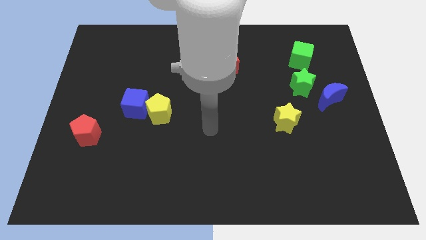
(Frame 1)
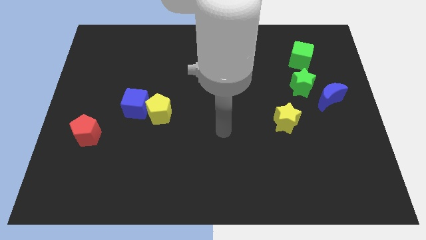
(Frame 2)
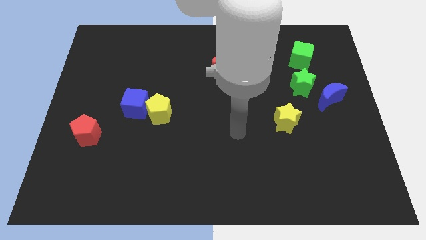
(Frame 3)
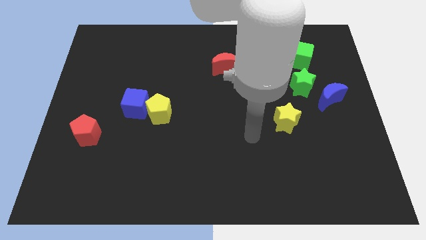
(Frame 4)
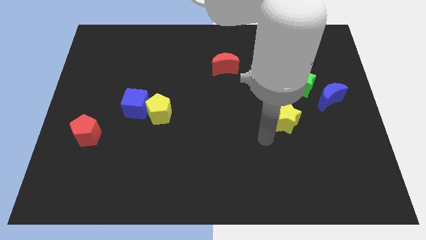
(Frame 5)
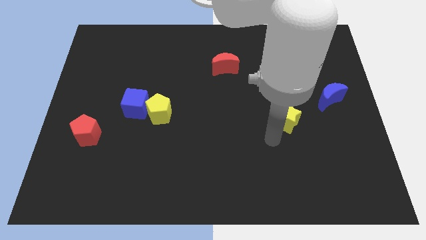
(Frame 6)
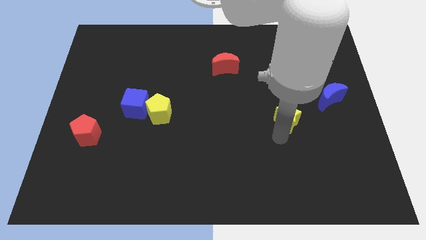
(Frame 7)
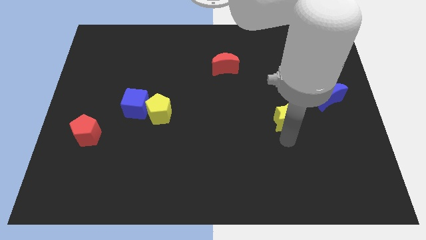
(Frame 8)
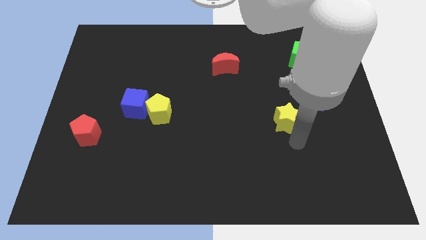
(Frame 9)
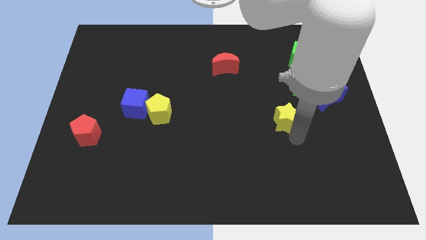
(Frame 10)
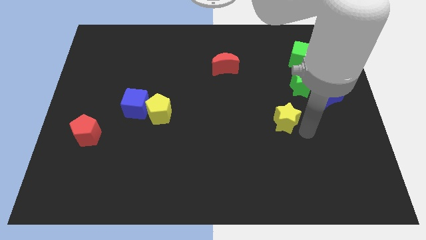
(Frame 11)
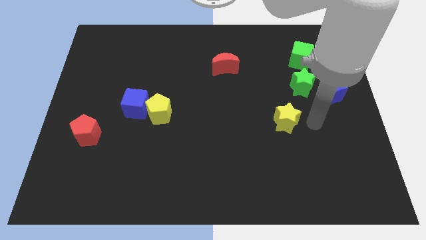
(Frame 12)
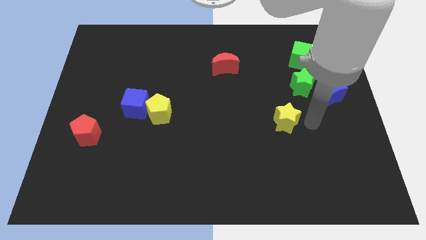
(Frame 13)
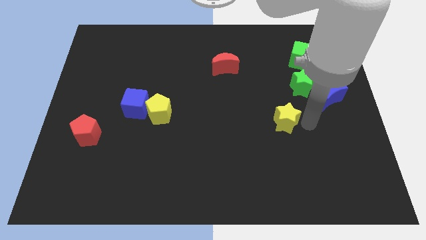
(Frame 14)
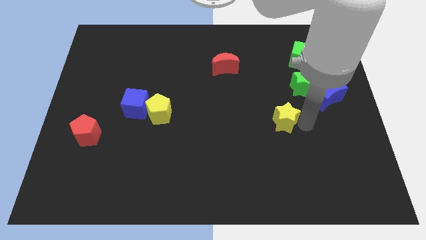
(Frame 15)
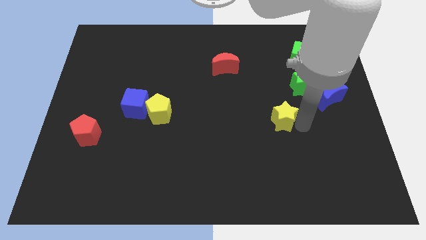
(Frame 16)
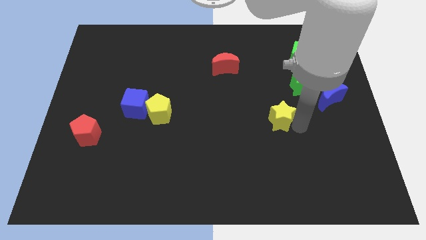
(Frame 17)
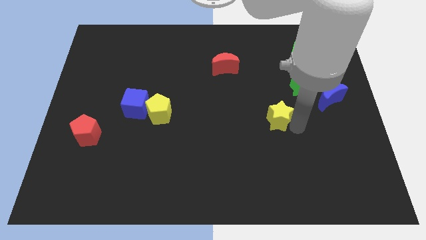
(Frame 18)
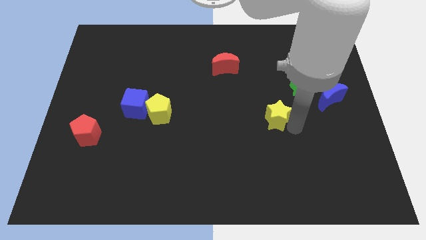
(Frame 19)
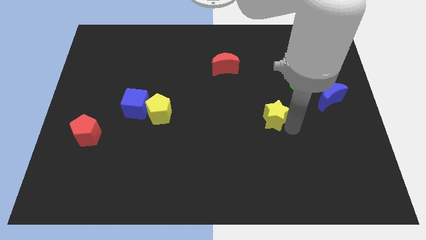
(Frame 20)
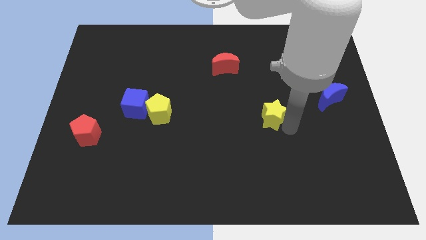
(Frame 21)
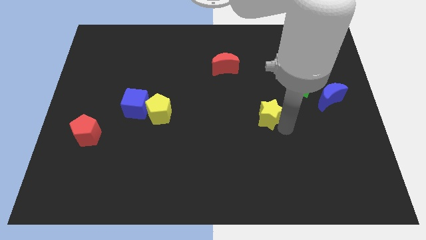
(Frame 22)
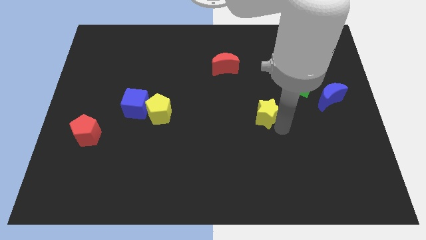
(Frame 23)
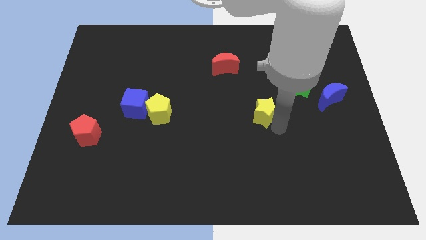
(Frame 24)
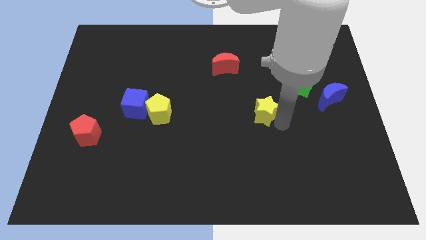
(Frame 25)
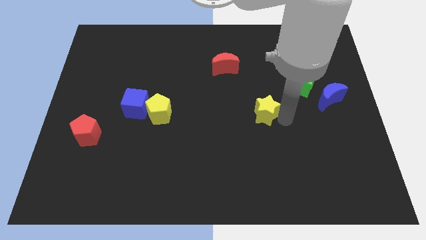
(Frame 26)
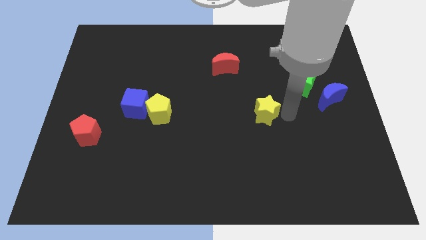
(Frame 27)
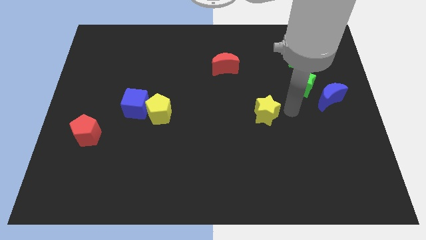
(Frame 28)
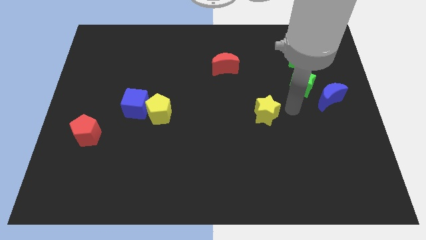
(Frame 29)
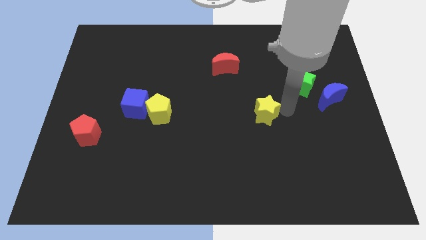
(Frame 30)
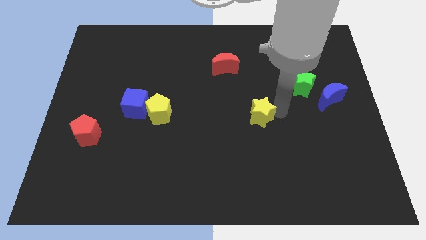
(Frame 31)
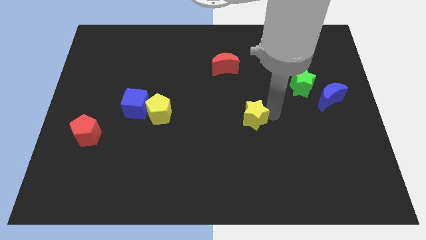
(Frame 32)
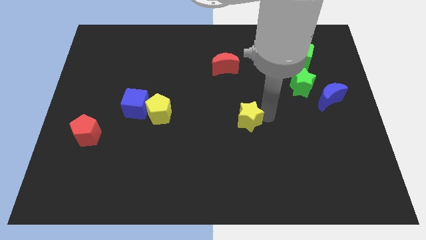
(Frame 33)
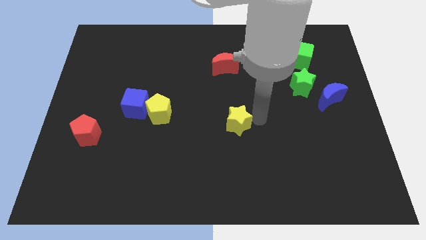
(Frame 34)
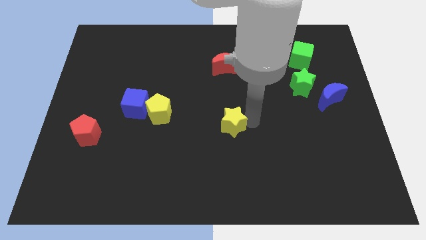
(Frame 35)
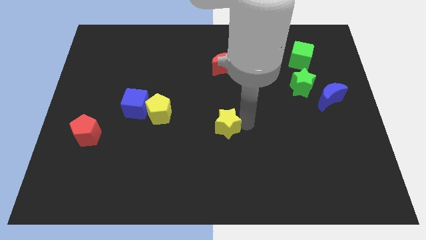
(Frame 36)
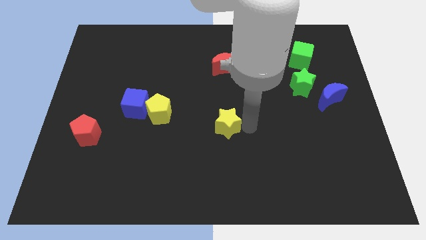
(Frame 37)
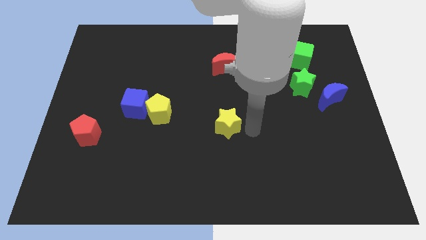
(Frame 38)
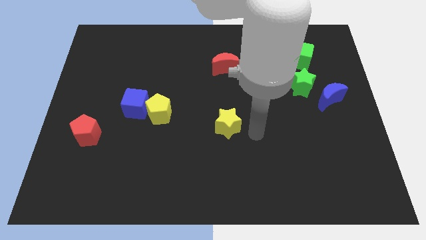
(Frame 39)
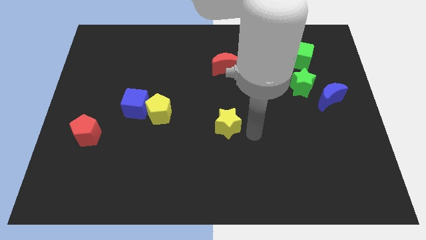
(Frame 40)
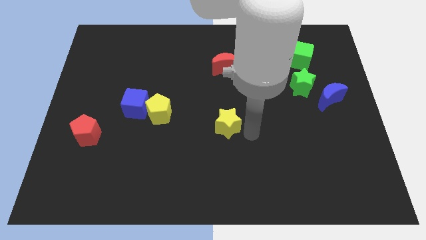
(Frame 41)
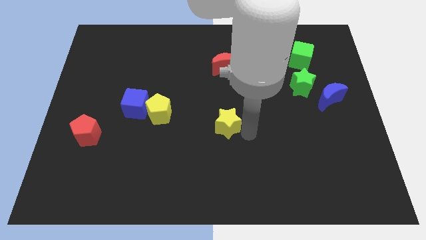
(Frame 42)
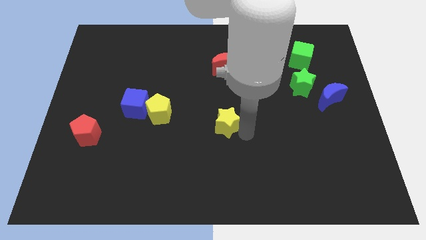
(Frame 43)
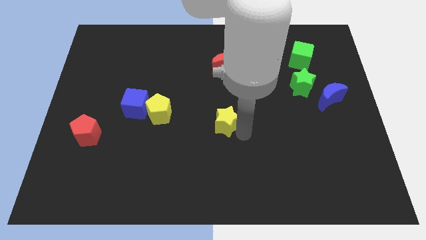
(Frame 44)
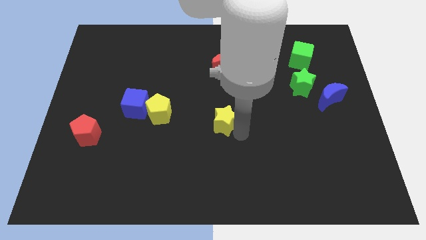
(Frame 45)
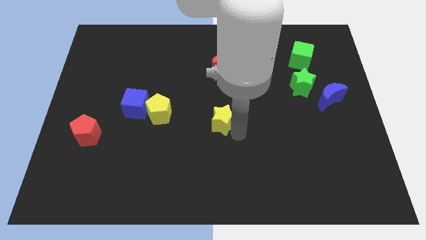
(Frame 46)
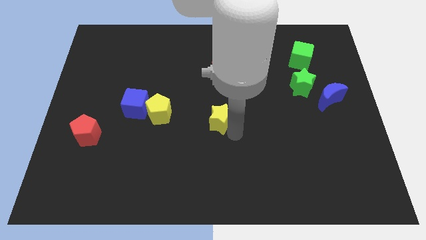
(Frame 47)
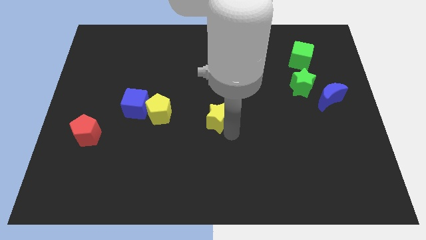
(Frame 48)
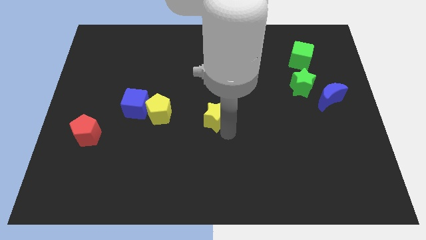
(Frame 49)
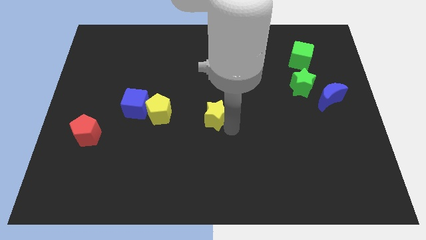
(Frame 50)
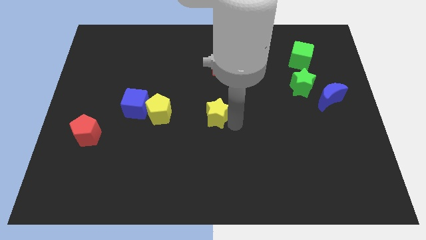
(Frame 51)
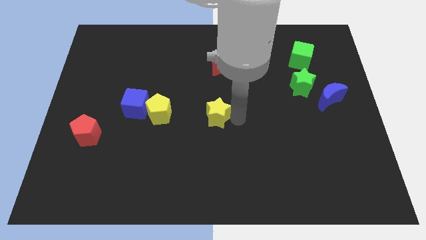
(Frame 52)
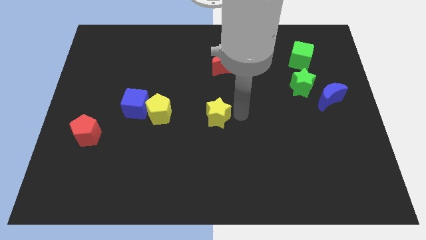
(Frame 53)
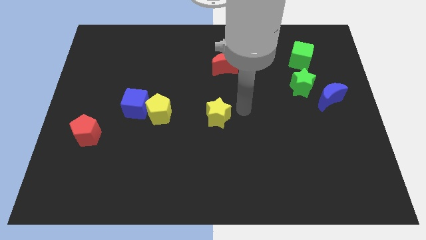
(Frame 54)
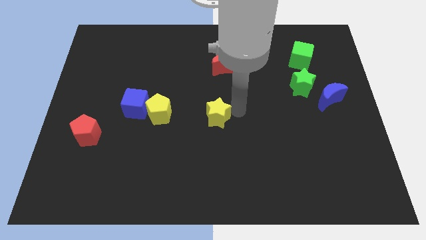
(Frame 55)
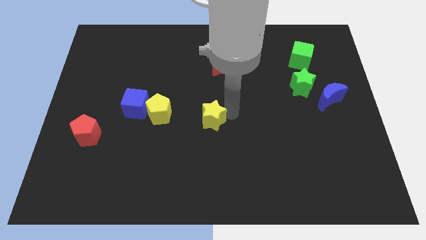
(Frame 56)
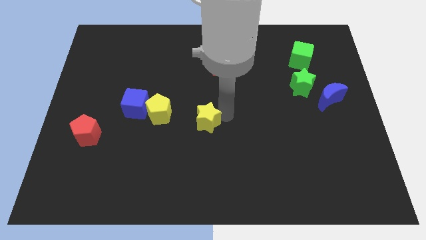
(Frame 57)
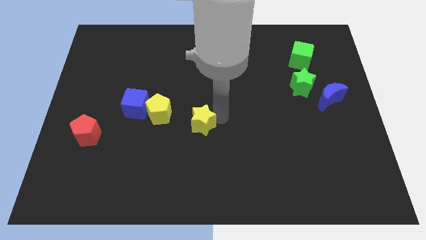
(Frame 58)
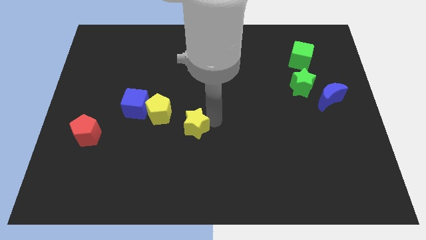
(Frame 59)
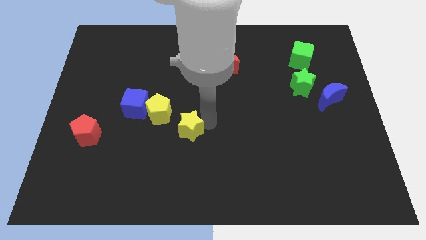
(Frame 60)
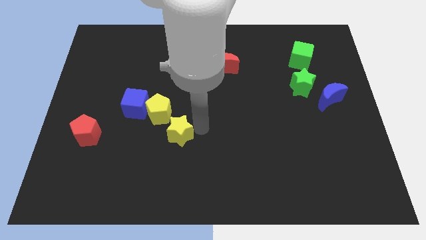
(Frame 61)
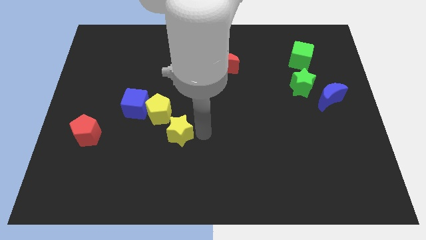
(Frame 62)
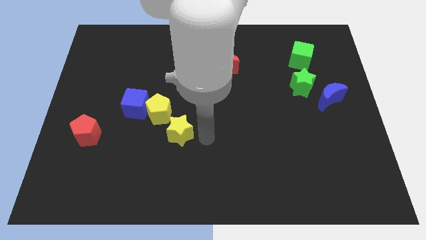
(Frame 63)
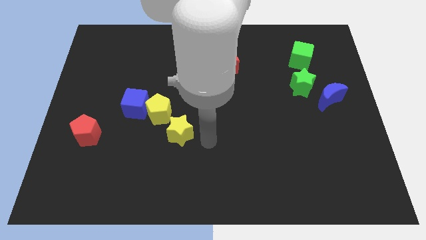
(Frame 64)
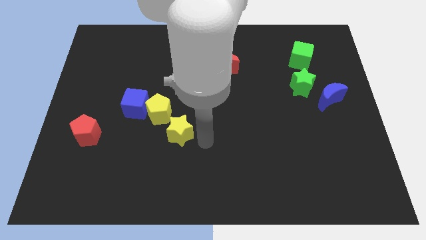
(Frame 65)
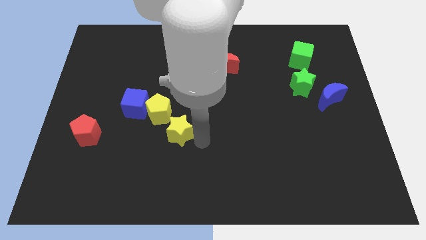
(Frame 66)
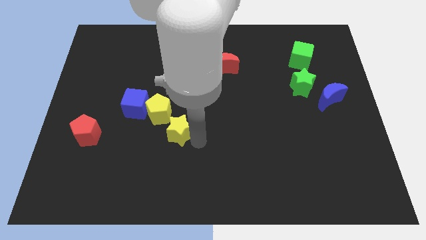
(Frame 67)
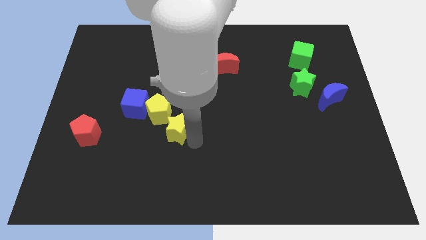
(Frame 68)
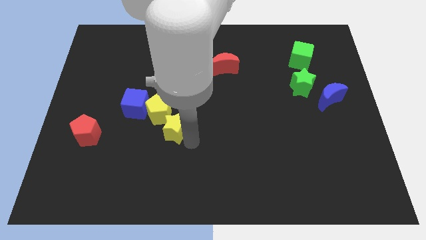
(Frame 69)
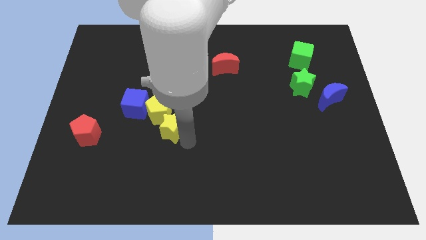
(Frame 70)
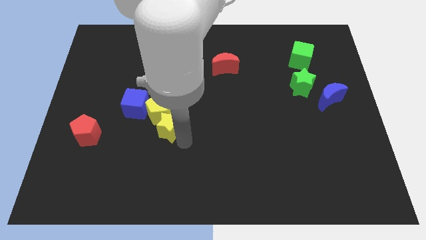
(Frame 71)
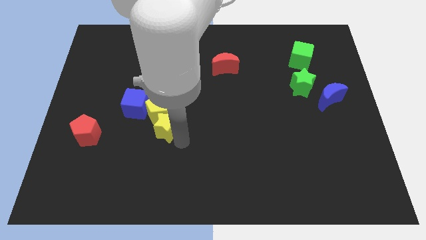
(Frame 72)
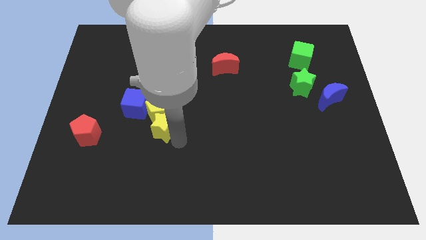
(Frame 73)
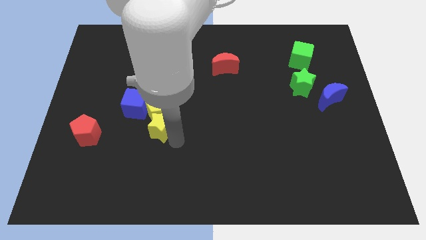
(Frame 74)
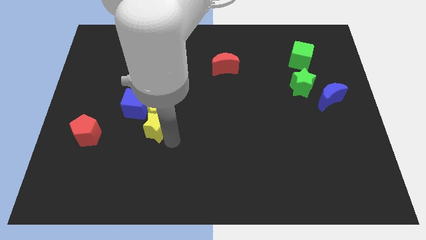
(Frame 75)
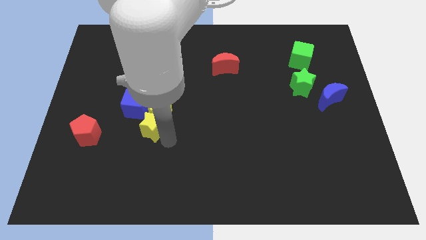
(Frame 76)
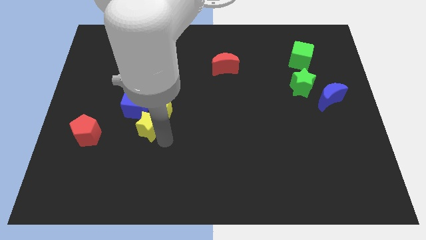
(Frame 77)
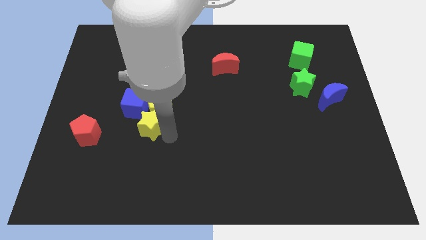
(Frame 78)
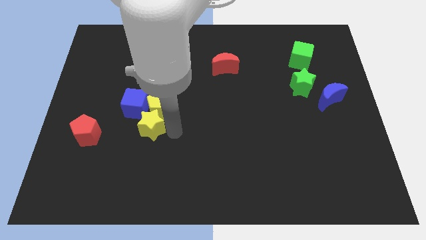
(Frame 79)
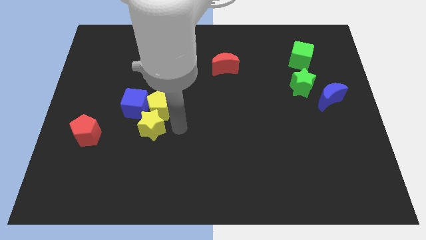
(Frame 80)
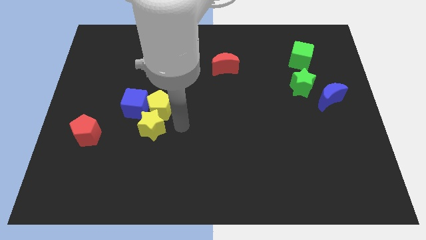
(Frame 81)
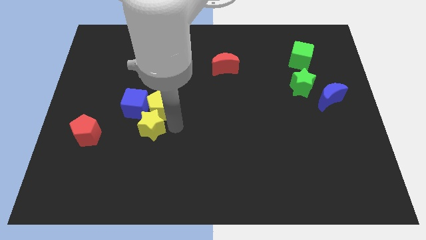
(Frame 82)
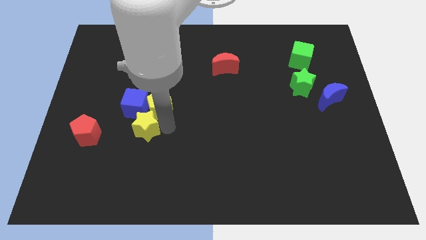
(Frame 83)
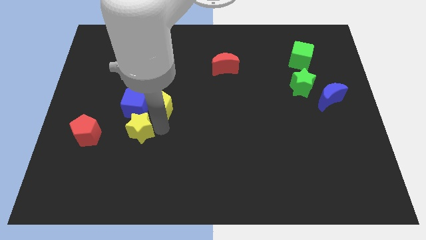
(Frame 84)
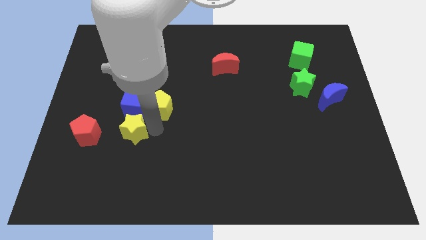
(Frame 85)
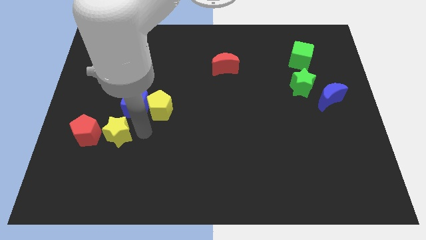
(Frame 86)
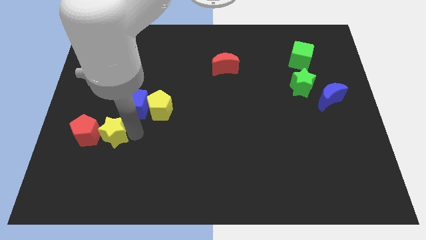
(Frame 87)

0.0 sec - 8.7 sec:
push the yellow star towards the red pentagon
